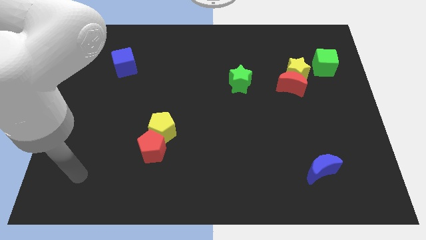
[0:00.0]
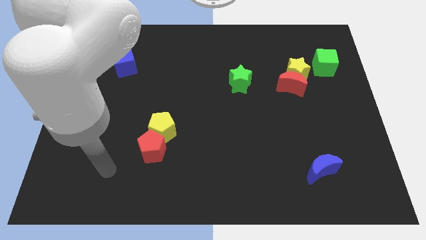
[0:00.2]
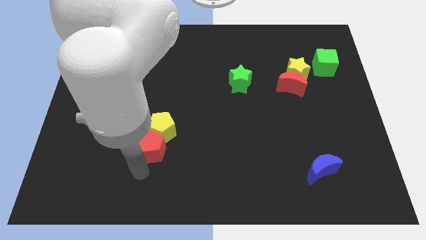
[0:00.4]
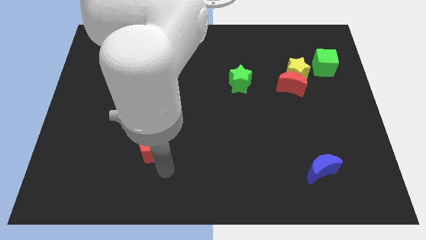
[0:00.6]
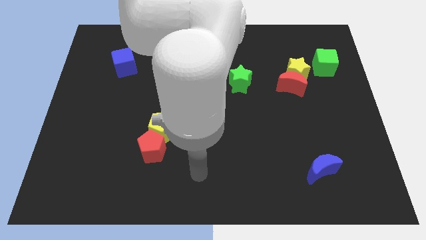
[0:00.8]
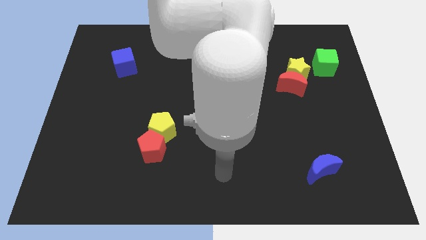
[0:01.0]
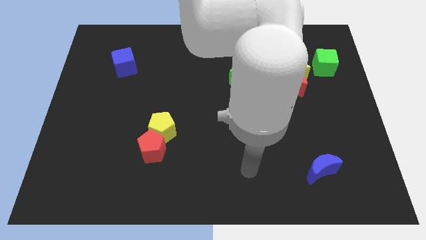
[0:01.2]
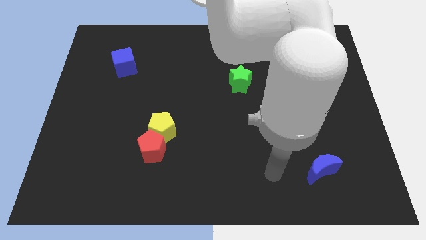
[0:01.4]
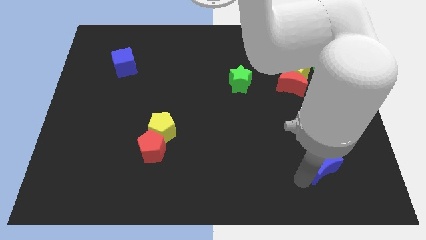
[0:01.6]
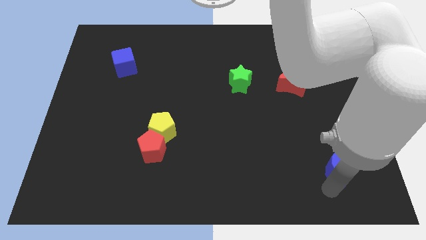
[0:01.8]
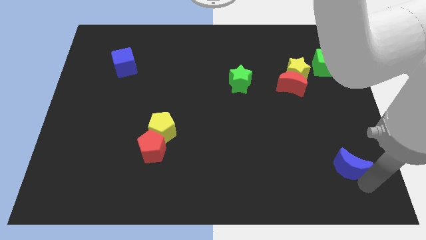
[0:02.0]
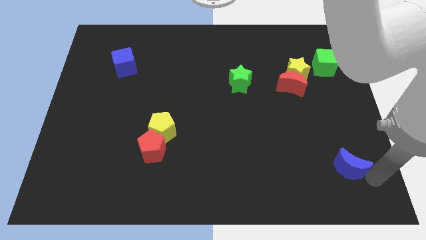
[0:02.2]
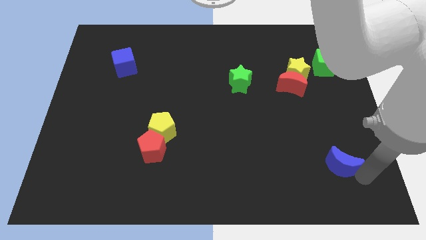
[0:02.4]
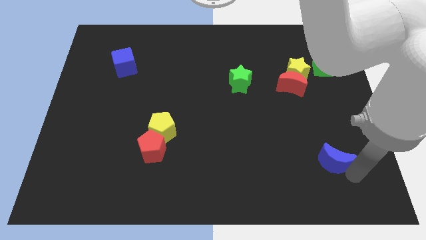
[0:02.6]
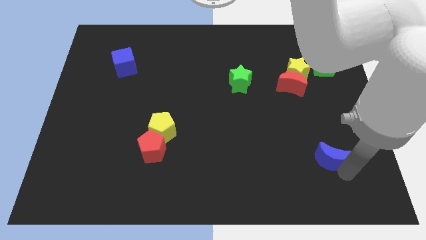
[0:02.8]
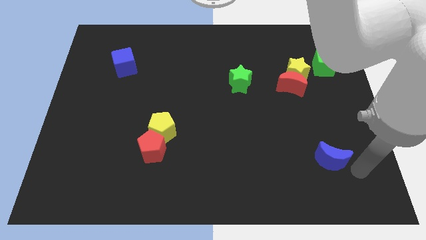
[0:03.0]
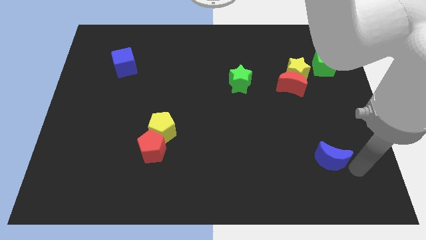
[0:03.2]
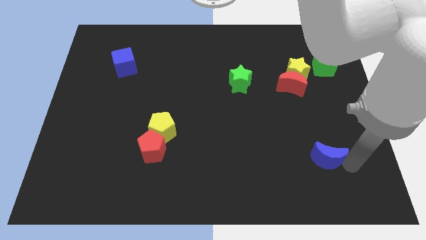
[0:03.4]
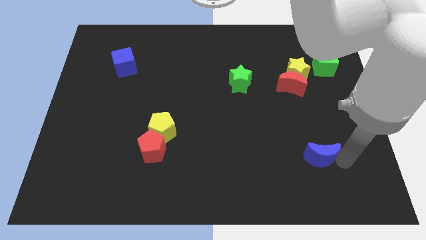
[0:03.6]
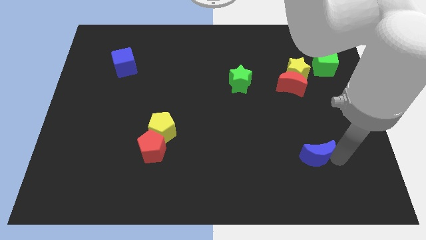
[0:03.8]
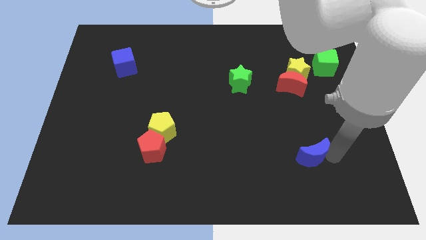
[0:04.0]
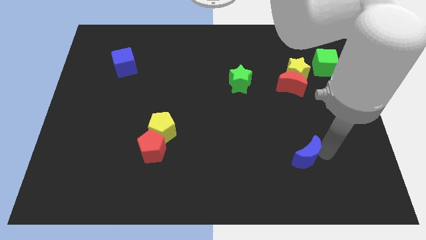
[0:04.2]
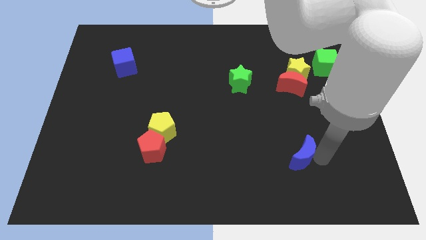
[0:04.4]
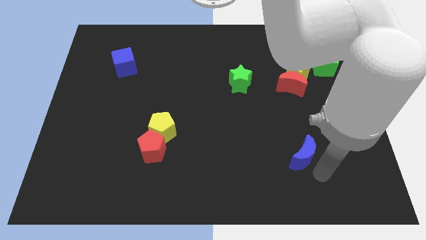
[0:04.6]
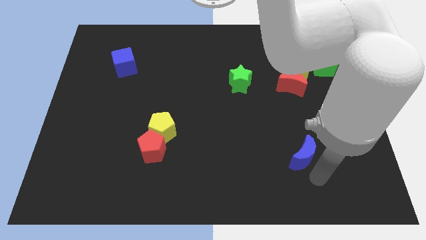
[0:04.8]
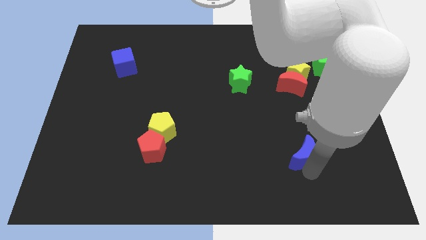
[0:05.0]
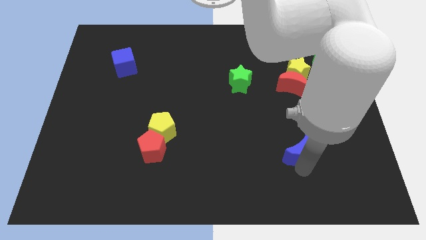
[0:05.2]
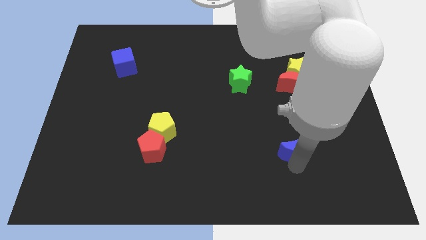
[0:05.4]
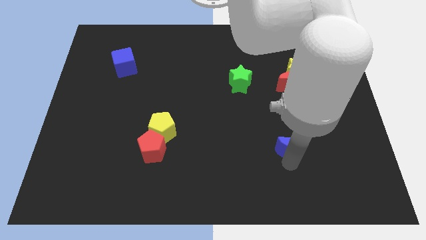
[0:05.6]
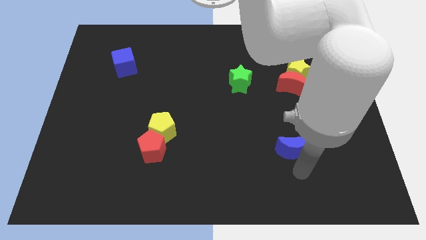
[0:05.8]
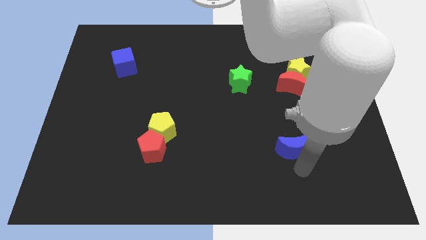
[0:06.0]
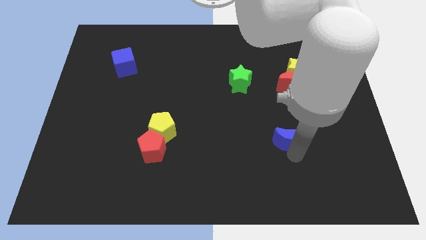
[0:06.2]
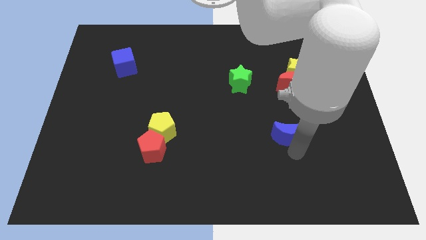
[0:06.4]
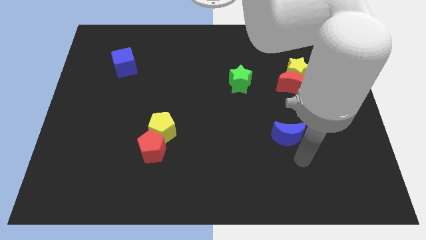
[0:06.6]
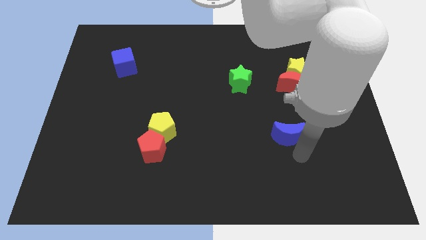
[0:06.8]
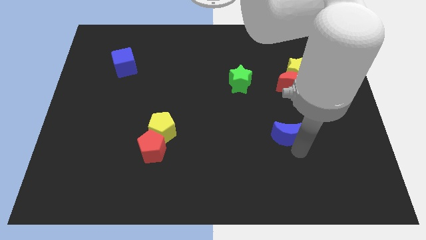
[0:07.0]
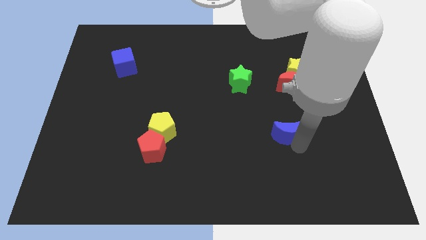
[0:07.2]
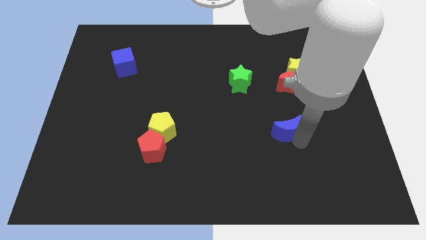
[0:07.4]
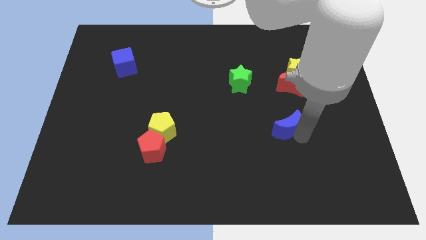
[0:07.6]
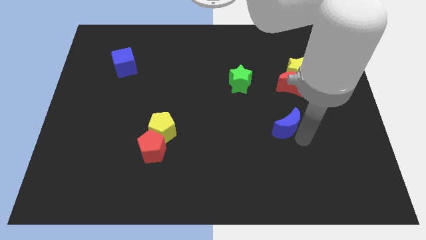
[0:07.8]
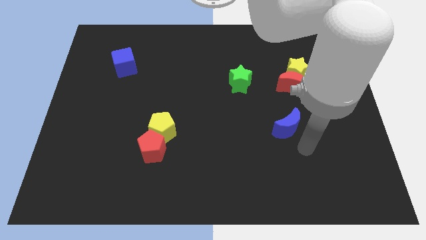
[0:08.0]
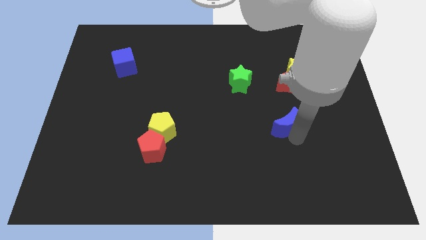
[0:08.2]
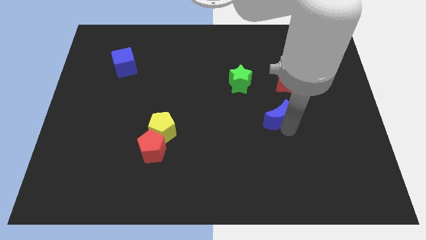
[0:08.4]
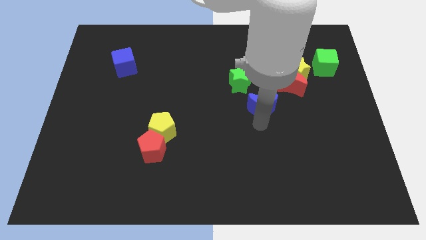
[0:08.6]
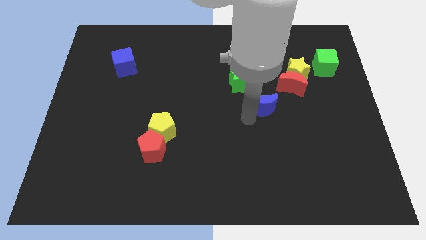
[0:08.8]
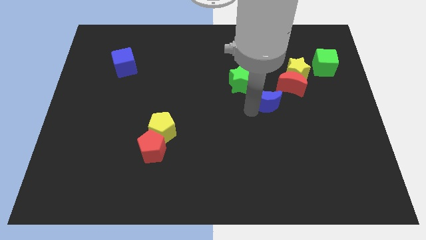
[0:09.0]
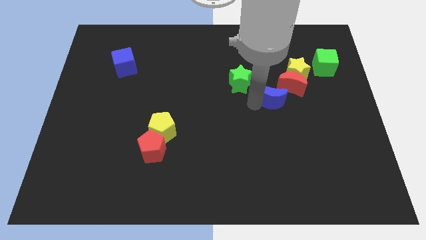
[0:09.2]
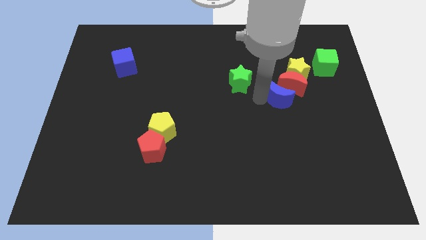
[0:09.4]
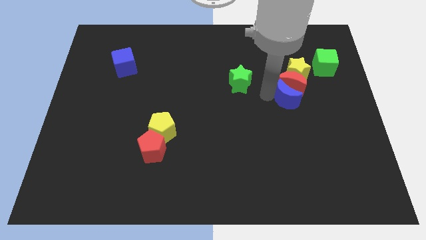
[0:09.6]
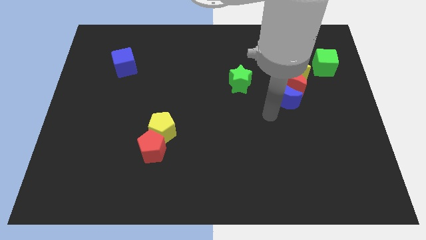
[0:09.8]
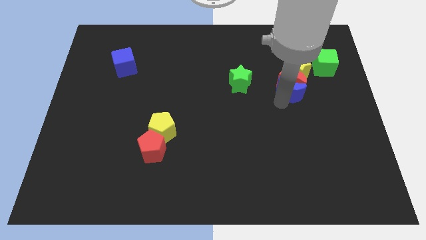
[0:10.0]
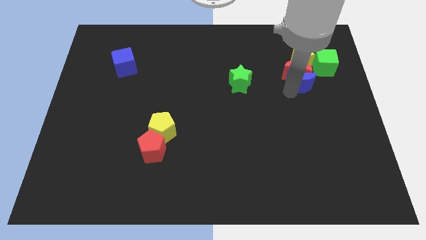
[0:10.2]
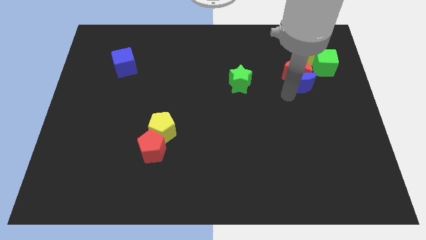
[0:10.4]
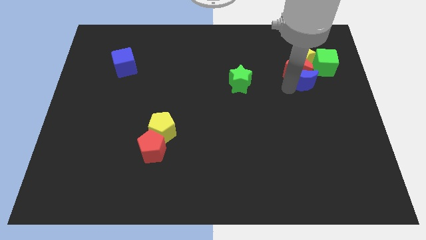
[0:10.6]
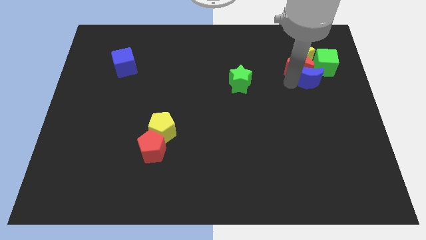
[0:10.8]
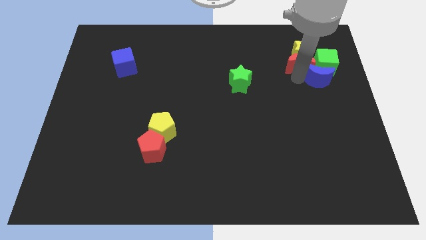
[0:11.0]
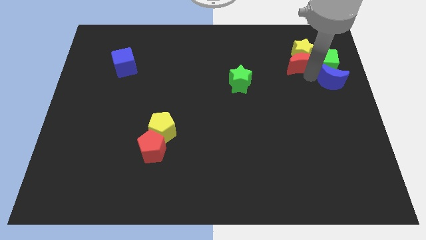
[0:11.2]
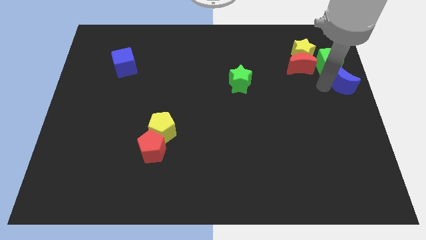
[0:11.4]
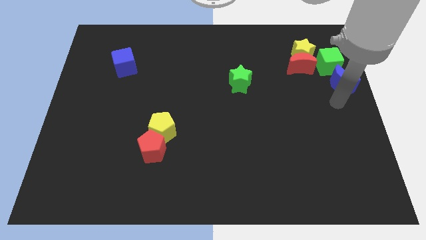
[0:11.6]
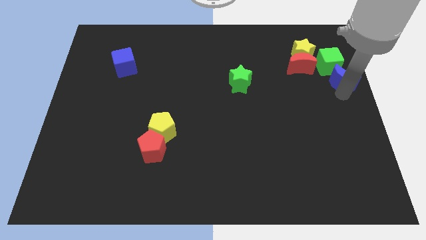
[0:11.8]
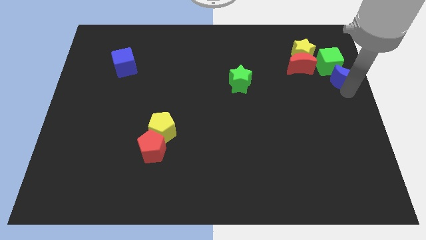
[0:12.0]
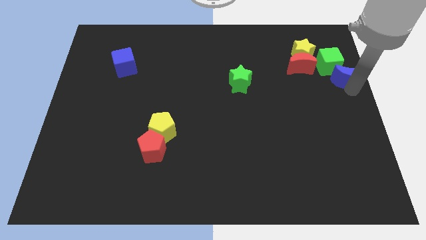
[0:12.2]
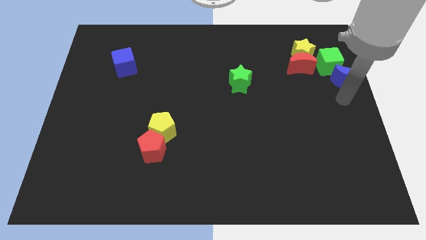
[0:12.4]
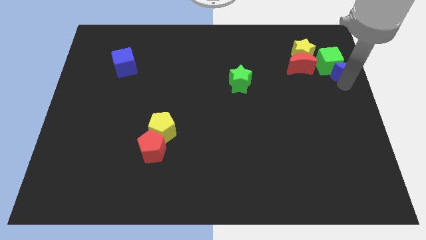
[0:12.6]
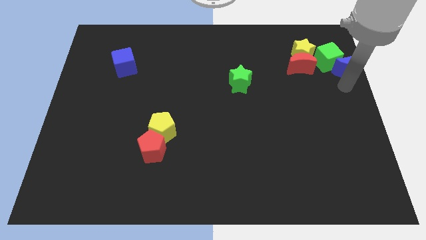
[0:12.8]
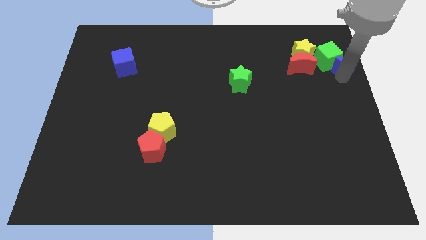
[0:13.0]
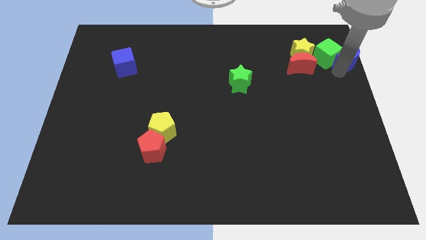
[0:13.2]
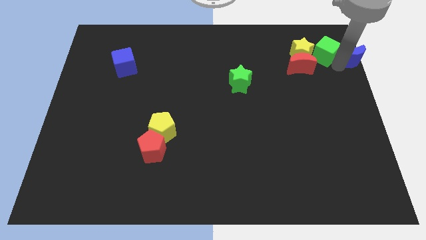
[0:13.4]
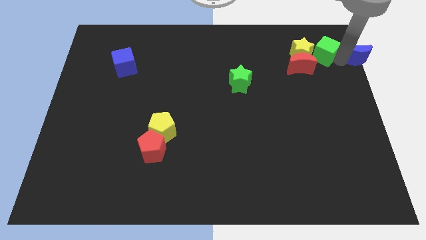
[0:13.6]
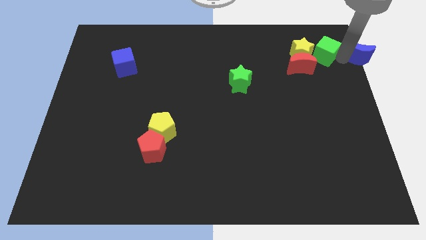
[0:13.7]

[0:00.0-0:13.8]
put the blue moon to the upper right corner
